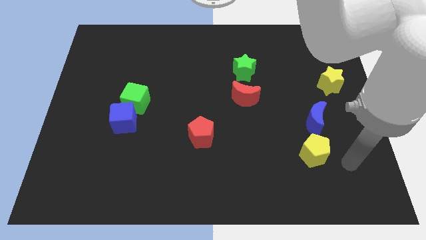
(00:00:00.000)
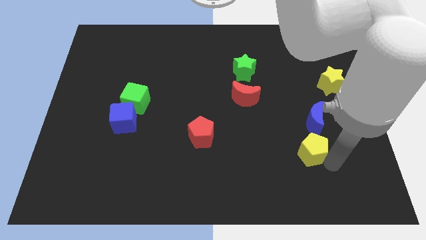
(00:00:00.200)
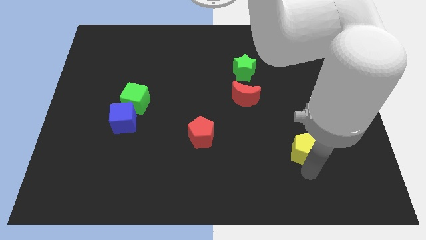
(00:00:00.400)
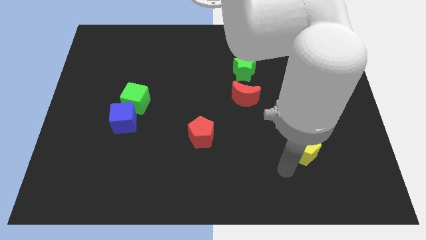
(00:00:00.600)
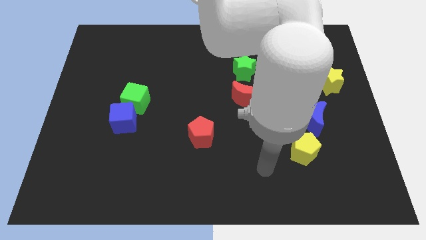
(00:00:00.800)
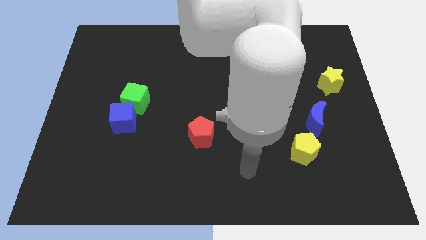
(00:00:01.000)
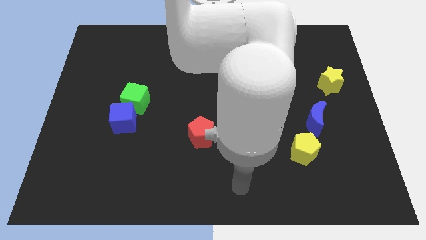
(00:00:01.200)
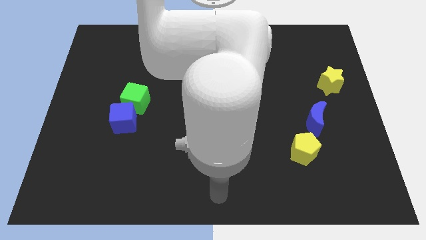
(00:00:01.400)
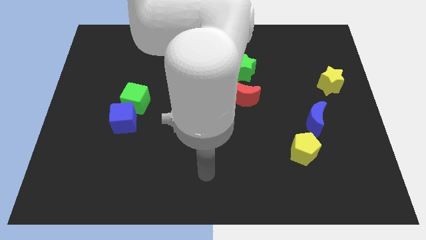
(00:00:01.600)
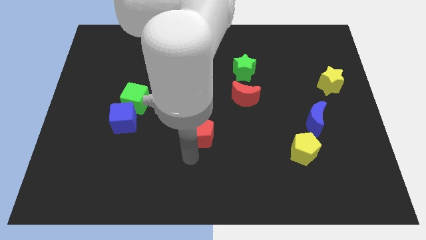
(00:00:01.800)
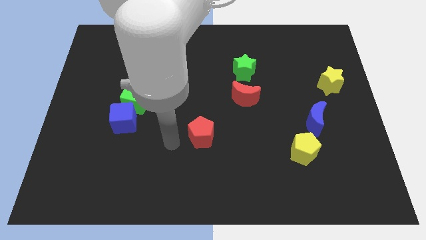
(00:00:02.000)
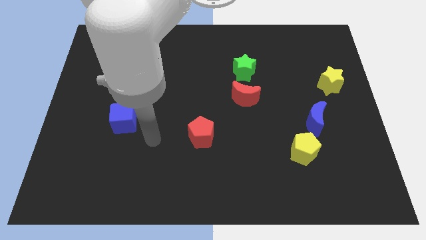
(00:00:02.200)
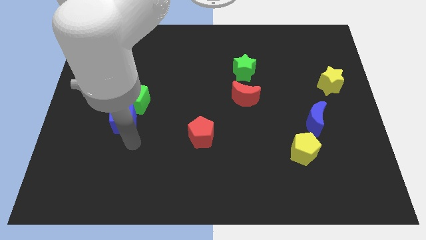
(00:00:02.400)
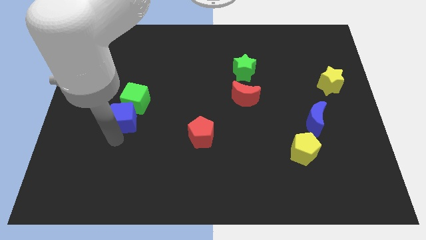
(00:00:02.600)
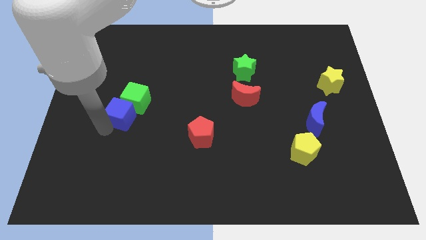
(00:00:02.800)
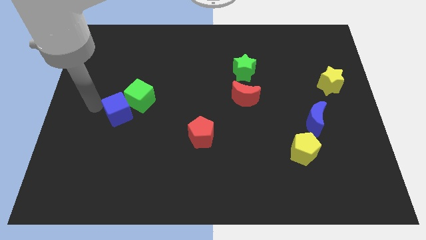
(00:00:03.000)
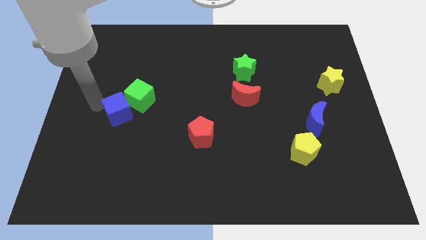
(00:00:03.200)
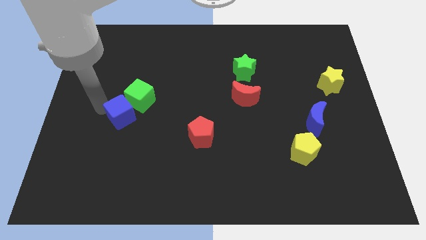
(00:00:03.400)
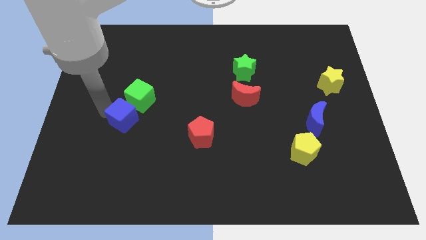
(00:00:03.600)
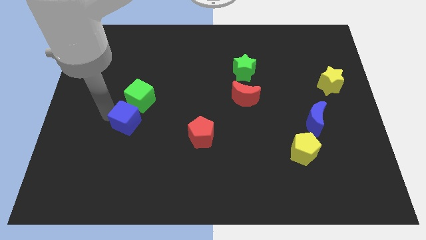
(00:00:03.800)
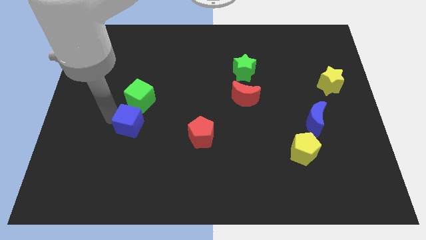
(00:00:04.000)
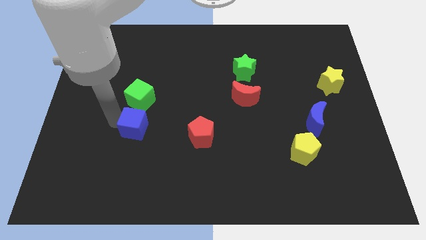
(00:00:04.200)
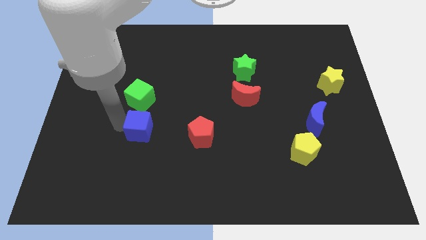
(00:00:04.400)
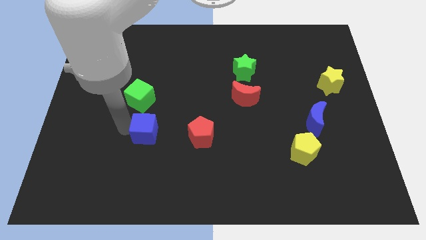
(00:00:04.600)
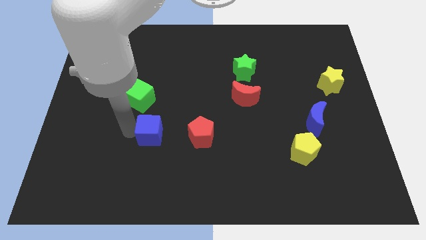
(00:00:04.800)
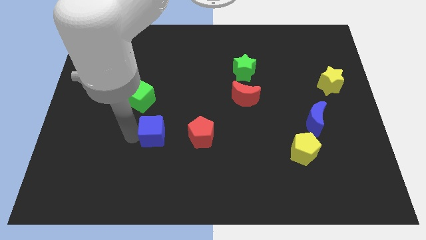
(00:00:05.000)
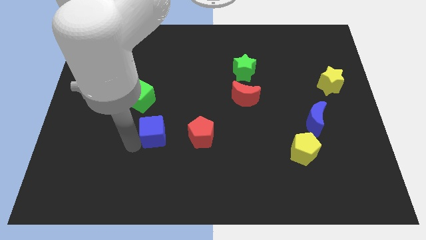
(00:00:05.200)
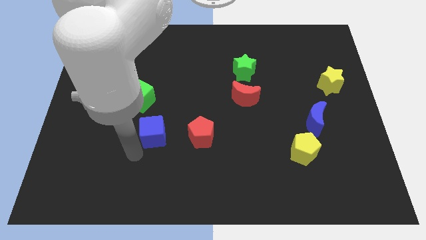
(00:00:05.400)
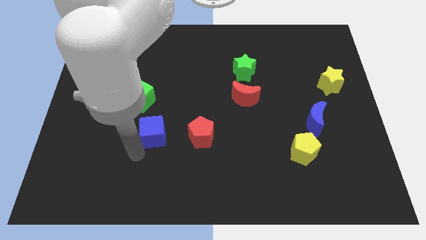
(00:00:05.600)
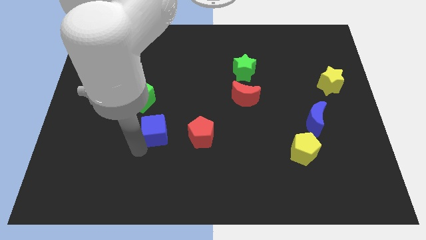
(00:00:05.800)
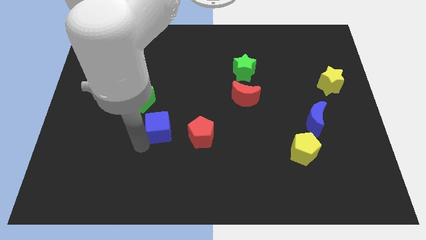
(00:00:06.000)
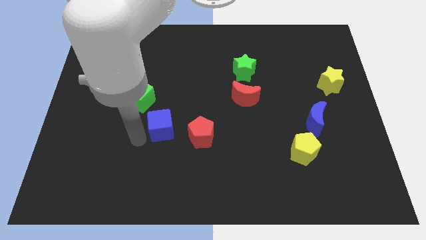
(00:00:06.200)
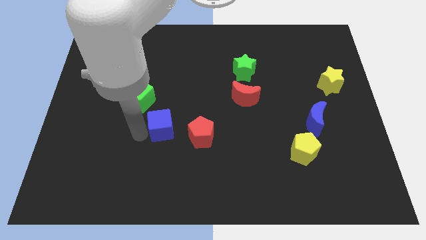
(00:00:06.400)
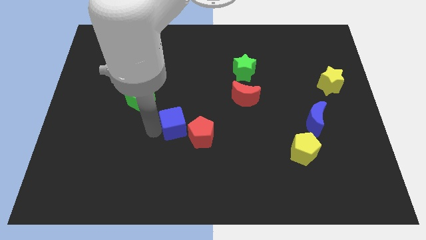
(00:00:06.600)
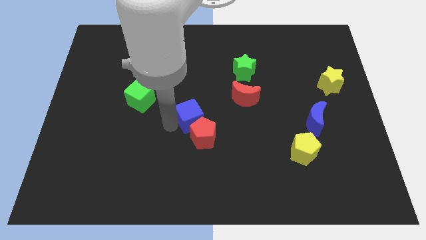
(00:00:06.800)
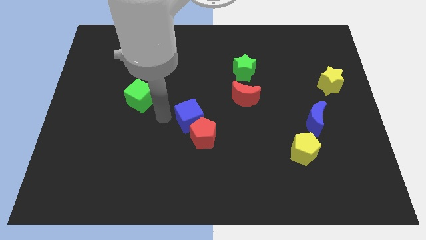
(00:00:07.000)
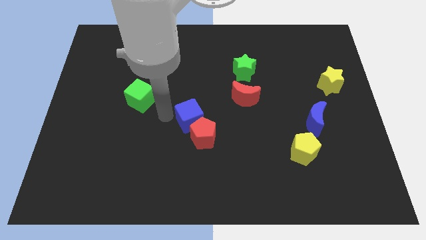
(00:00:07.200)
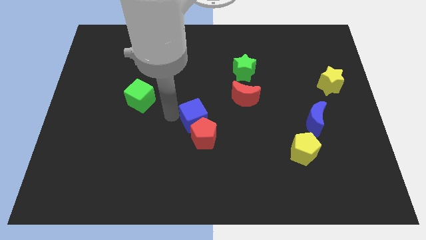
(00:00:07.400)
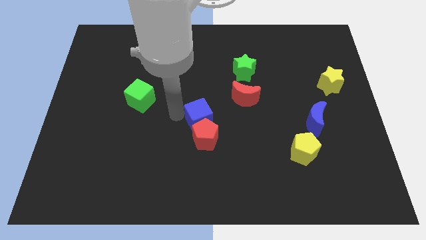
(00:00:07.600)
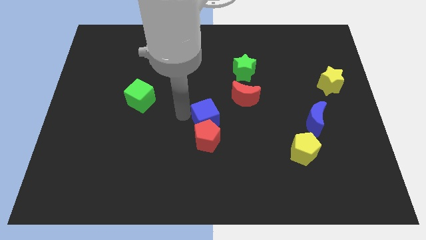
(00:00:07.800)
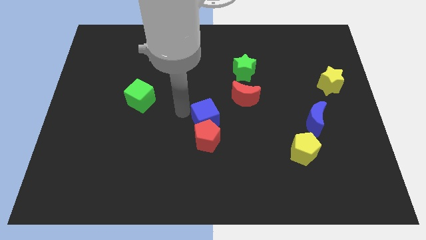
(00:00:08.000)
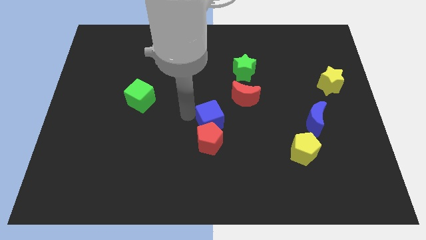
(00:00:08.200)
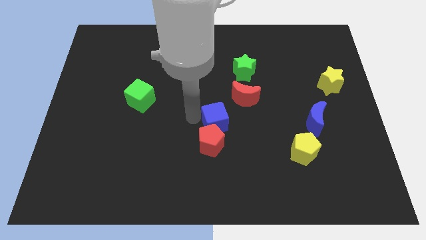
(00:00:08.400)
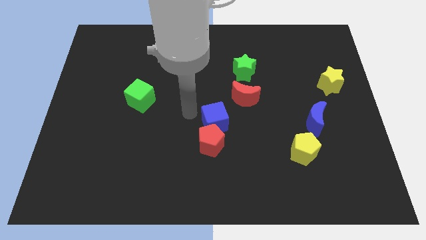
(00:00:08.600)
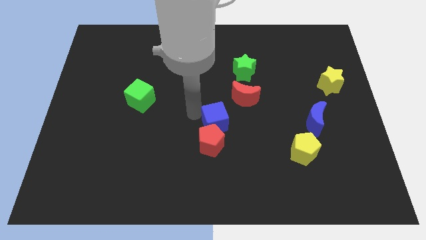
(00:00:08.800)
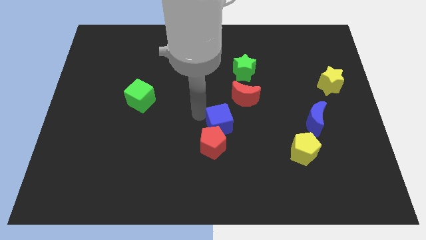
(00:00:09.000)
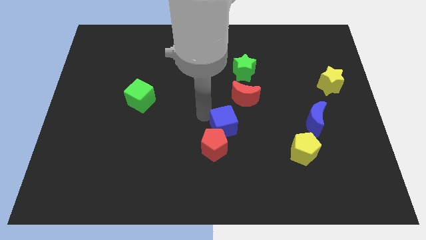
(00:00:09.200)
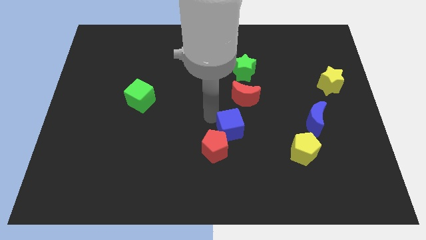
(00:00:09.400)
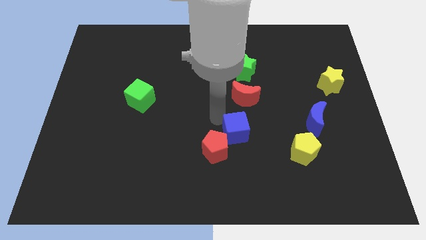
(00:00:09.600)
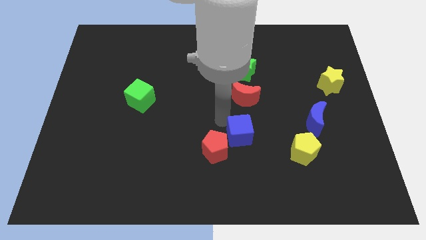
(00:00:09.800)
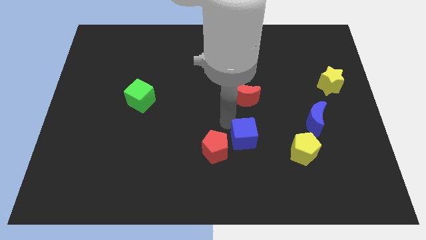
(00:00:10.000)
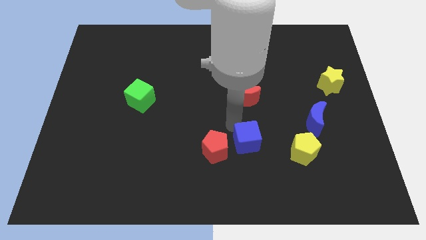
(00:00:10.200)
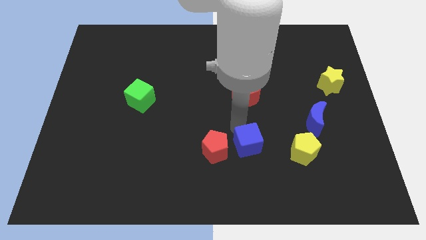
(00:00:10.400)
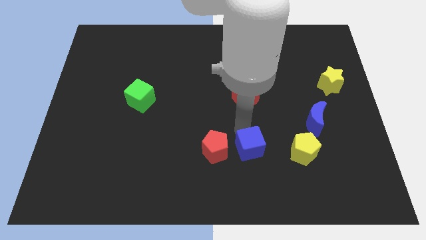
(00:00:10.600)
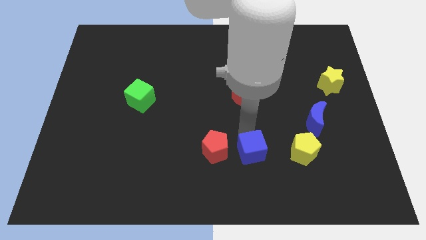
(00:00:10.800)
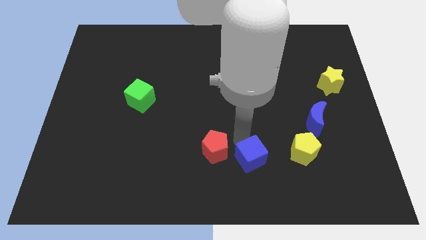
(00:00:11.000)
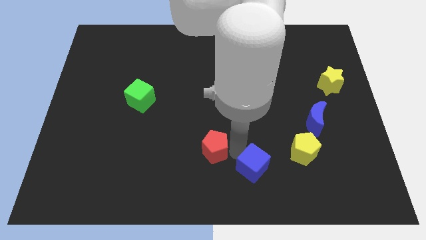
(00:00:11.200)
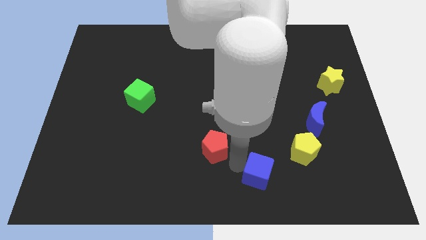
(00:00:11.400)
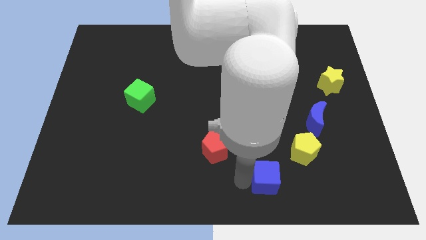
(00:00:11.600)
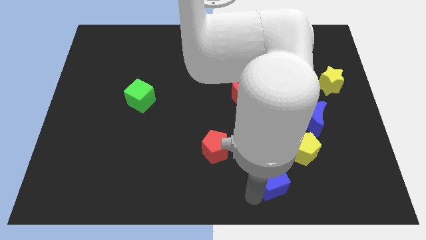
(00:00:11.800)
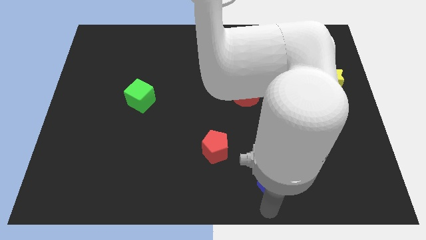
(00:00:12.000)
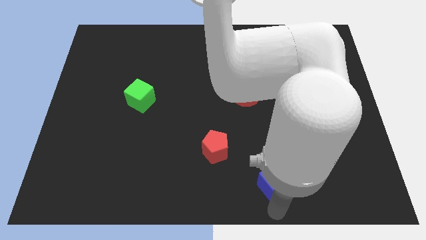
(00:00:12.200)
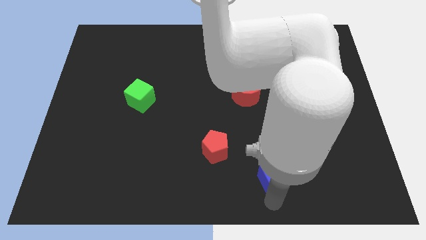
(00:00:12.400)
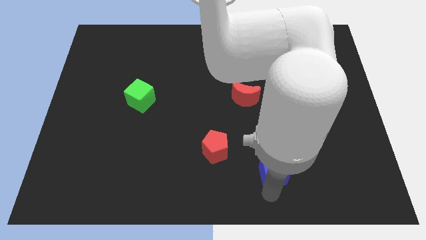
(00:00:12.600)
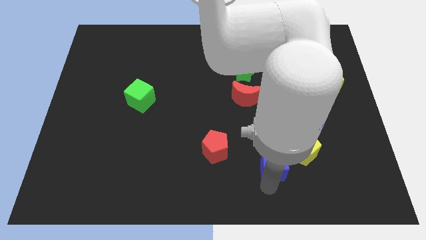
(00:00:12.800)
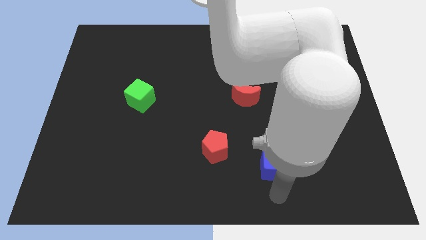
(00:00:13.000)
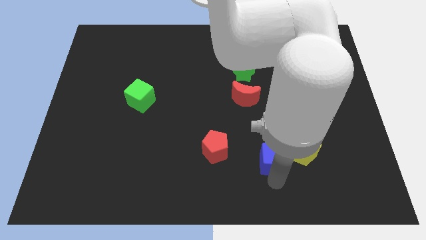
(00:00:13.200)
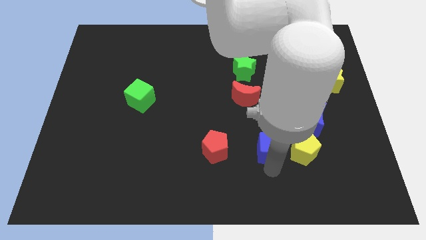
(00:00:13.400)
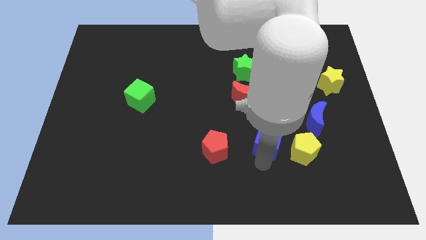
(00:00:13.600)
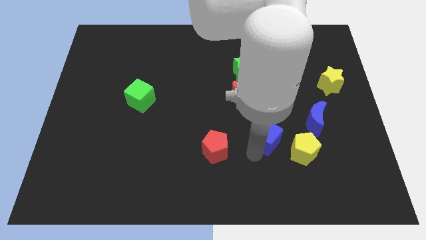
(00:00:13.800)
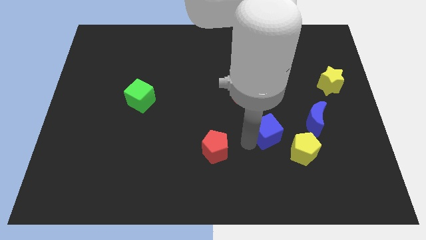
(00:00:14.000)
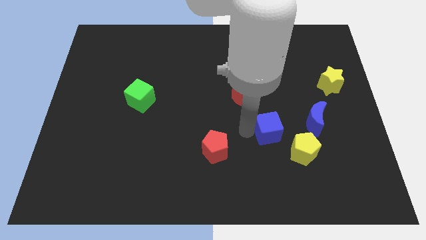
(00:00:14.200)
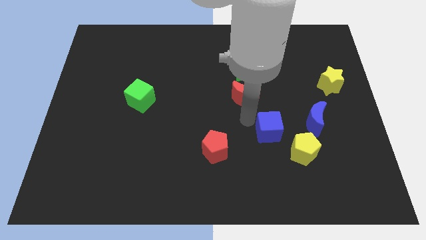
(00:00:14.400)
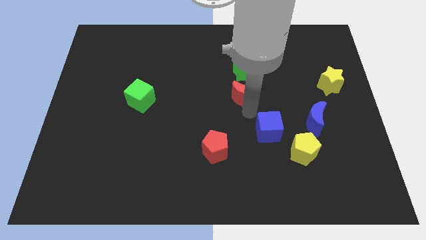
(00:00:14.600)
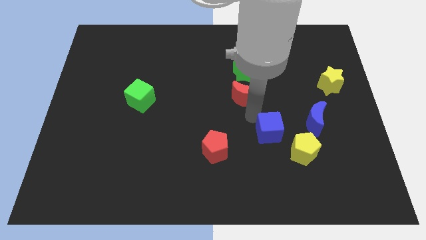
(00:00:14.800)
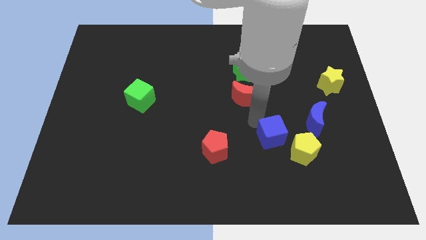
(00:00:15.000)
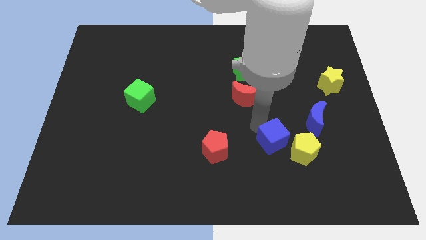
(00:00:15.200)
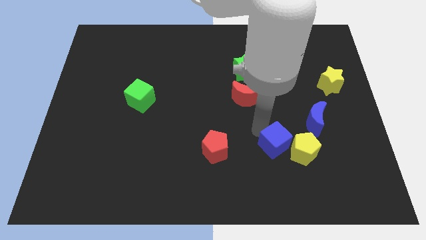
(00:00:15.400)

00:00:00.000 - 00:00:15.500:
move the blue cube towards the yellow pentagon
